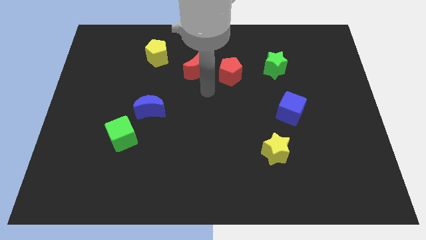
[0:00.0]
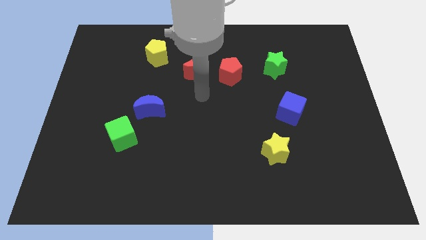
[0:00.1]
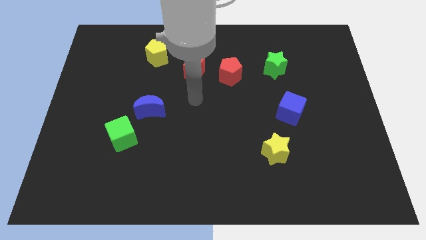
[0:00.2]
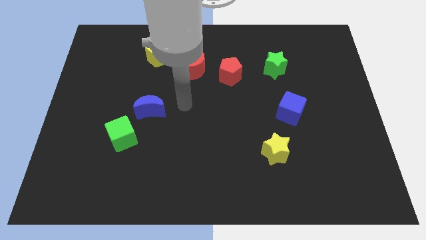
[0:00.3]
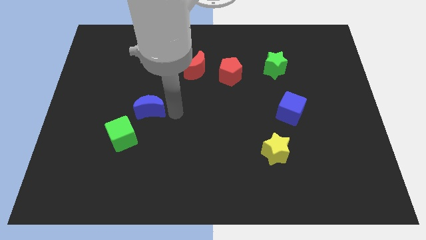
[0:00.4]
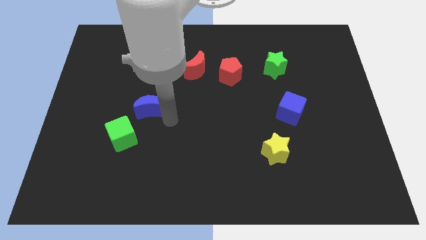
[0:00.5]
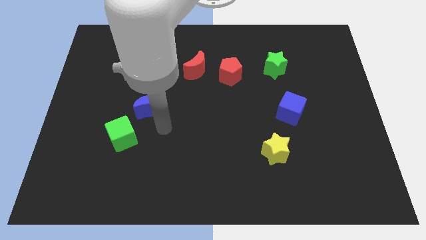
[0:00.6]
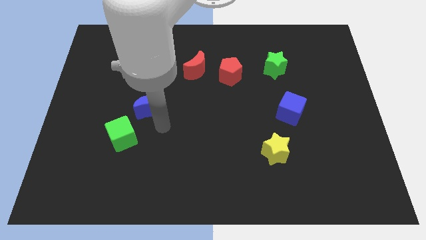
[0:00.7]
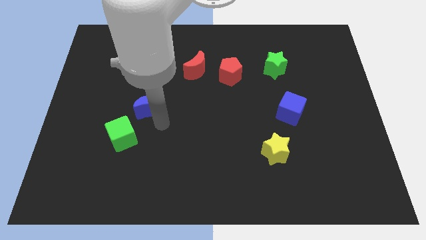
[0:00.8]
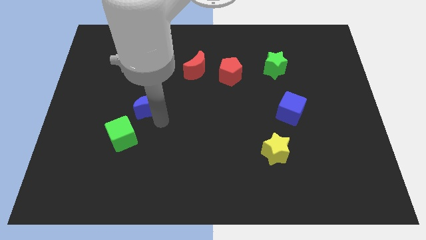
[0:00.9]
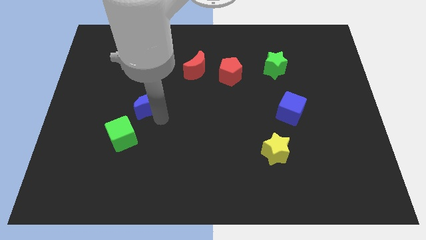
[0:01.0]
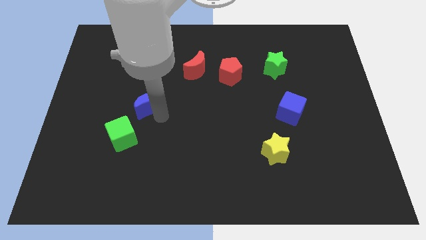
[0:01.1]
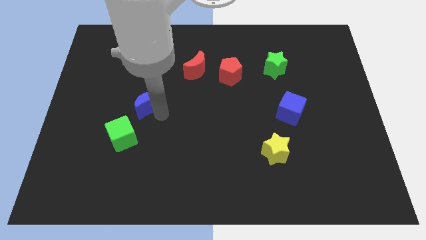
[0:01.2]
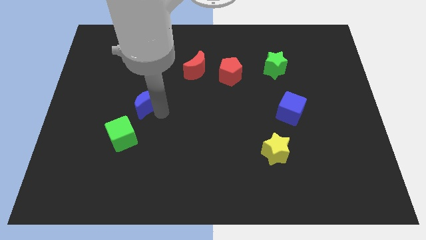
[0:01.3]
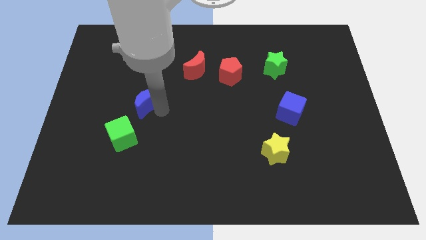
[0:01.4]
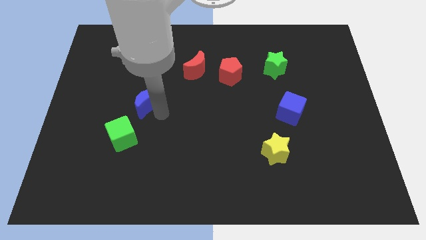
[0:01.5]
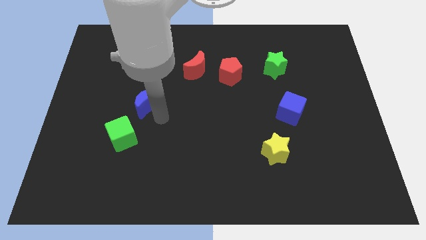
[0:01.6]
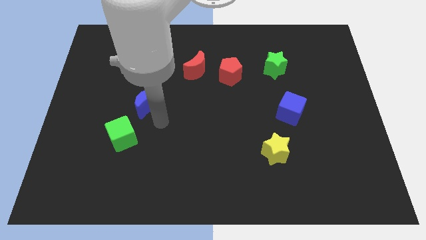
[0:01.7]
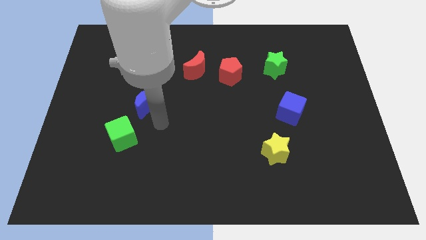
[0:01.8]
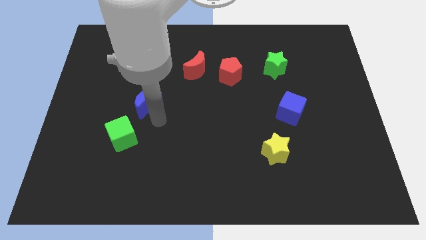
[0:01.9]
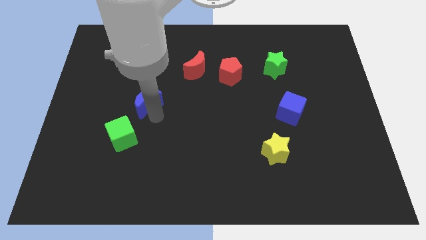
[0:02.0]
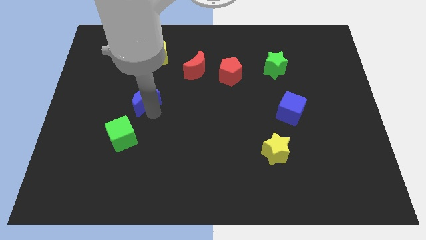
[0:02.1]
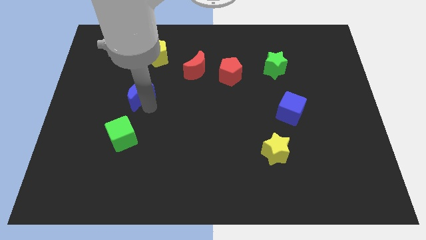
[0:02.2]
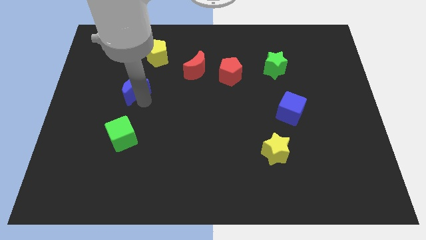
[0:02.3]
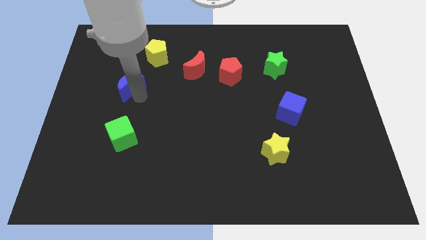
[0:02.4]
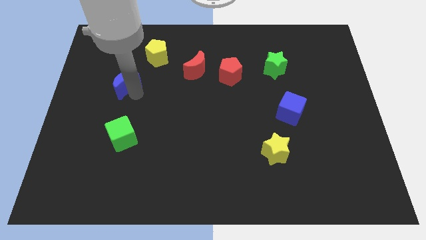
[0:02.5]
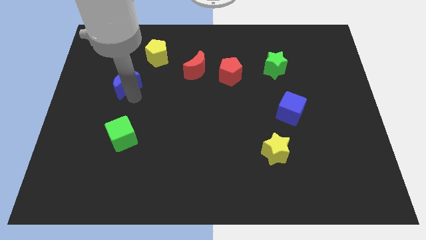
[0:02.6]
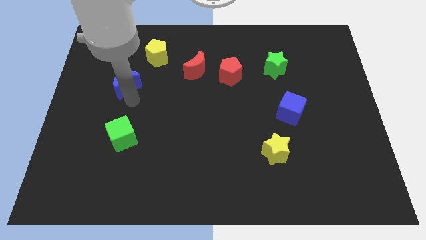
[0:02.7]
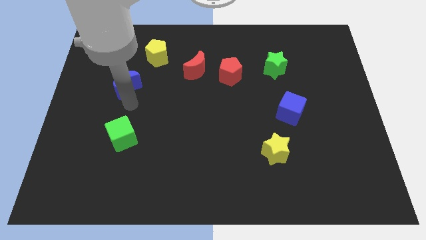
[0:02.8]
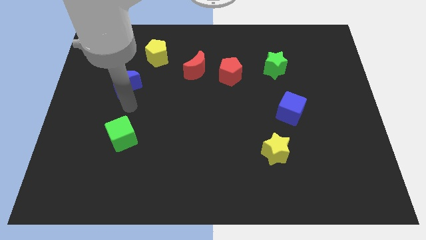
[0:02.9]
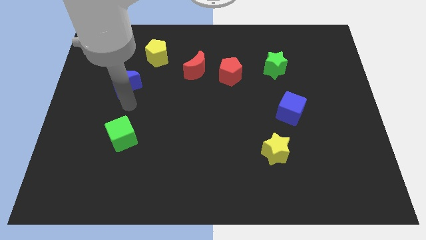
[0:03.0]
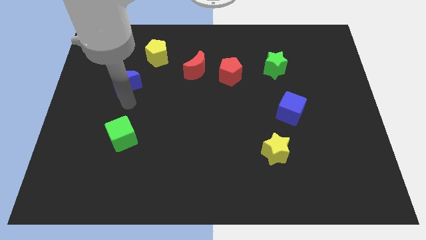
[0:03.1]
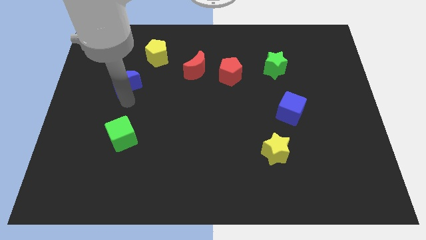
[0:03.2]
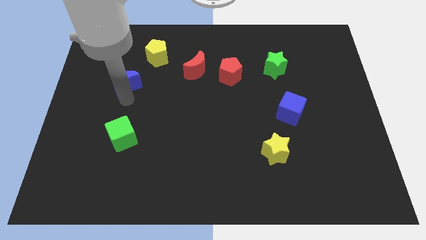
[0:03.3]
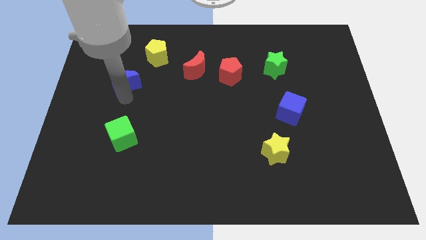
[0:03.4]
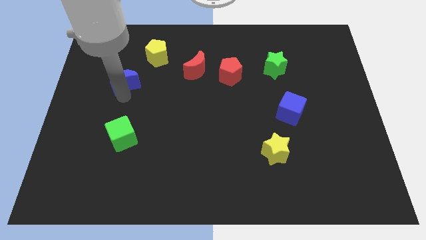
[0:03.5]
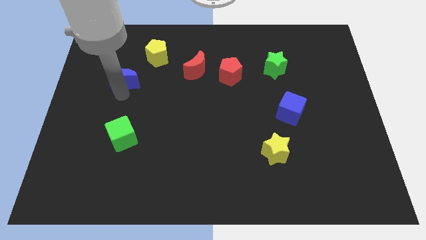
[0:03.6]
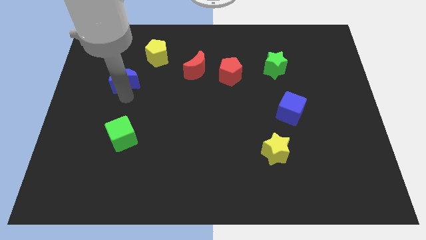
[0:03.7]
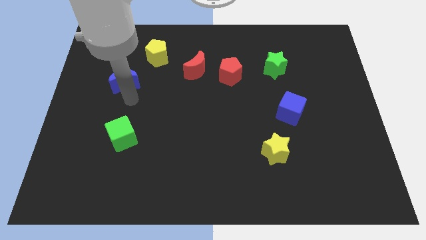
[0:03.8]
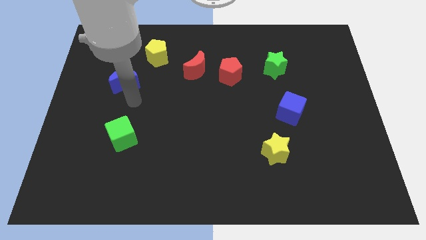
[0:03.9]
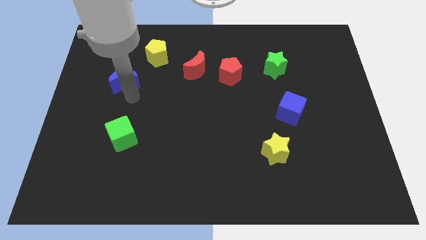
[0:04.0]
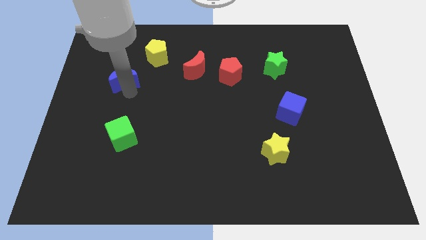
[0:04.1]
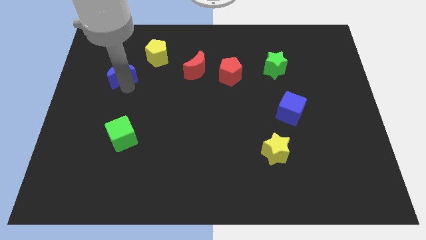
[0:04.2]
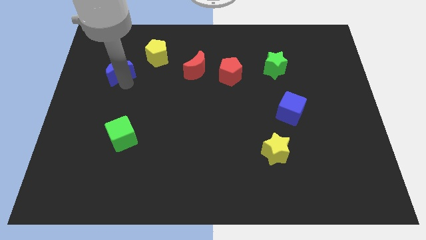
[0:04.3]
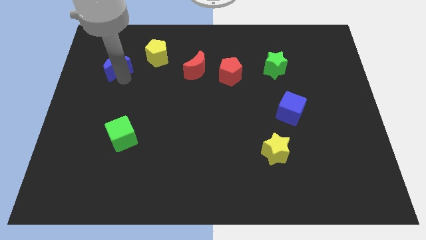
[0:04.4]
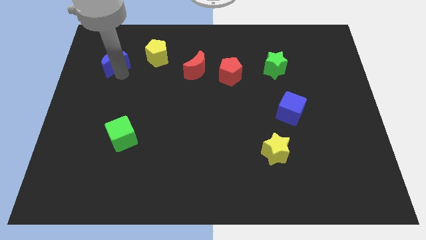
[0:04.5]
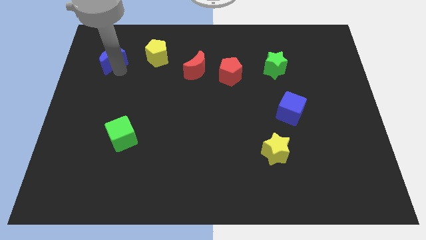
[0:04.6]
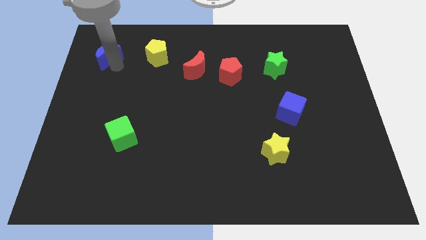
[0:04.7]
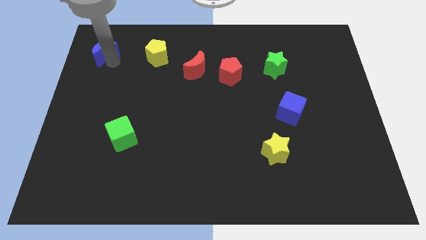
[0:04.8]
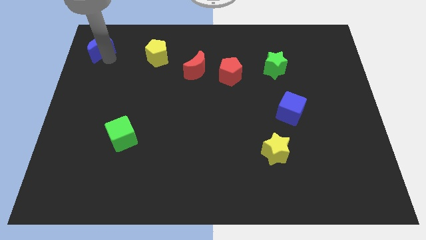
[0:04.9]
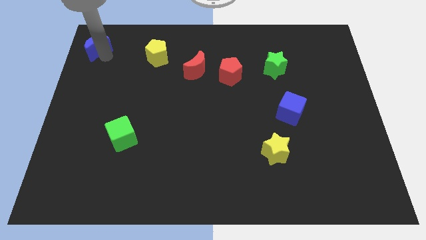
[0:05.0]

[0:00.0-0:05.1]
slide the blue moon to the top left corner

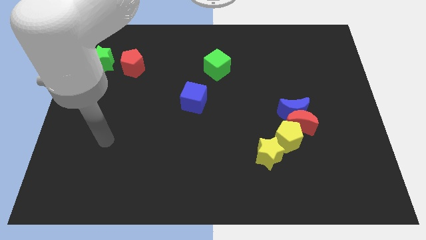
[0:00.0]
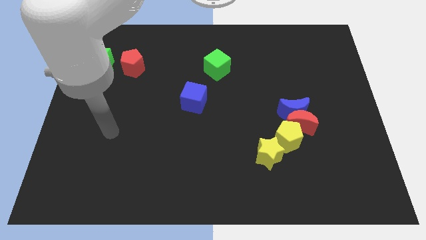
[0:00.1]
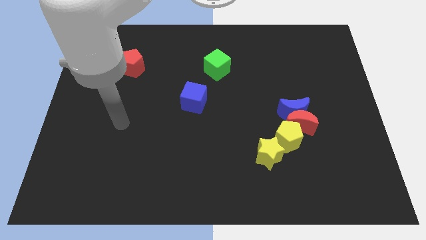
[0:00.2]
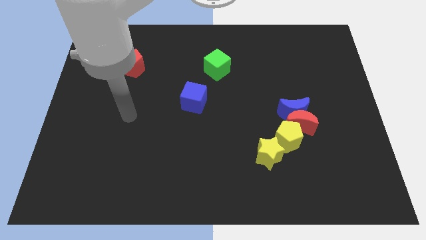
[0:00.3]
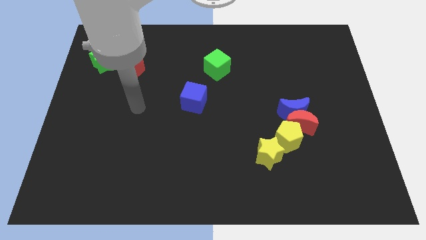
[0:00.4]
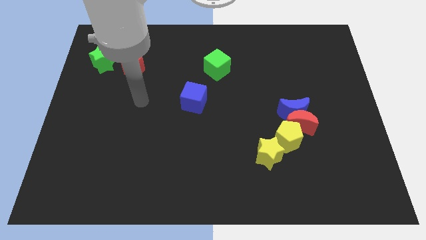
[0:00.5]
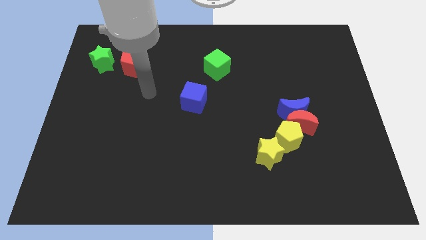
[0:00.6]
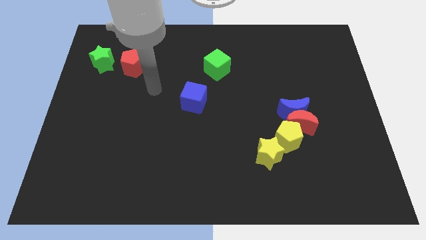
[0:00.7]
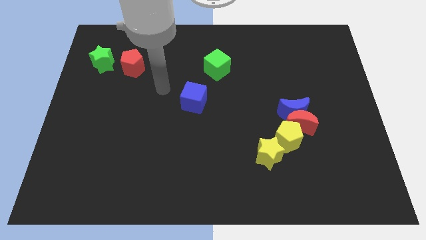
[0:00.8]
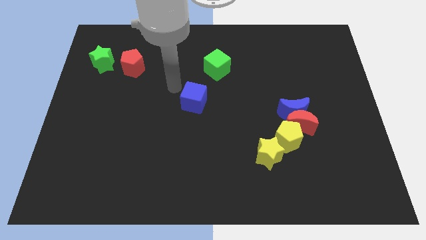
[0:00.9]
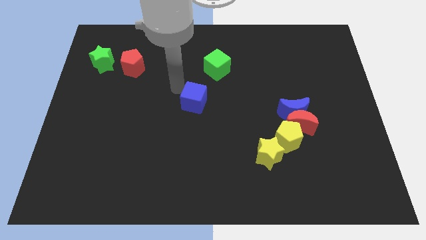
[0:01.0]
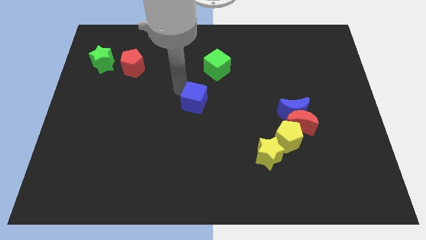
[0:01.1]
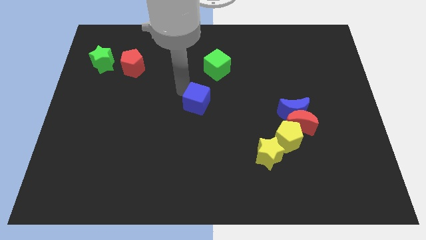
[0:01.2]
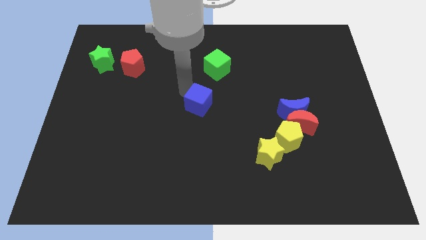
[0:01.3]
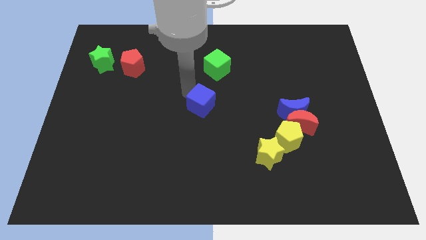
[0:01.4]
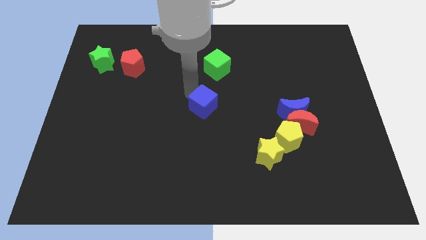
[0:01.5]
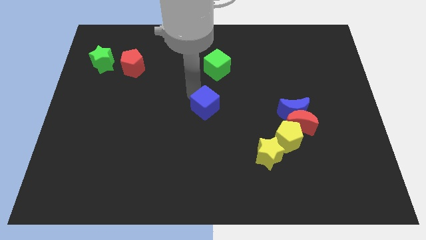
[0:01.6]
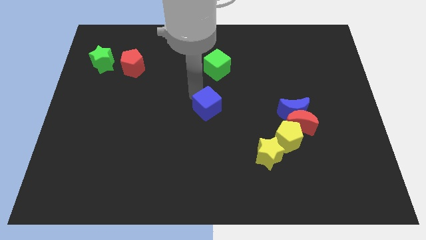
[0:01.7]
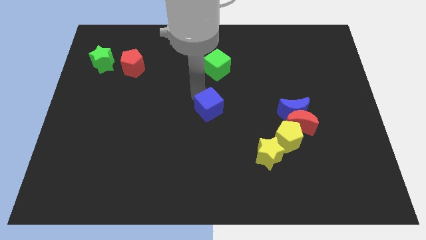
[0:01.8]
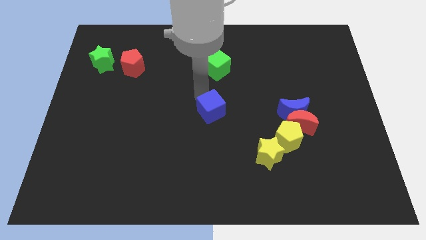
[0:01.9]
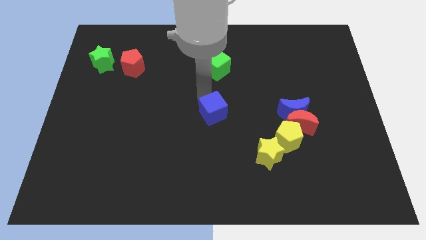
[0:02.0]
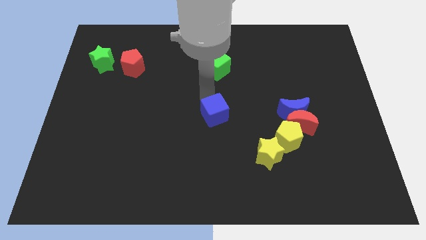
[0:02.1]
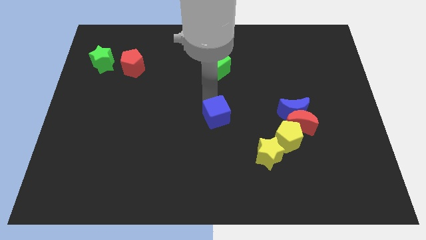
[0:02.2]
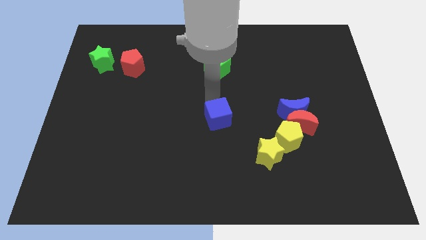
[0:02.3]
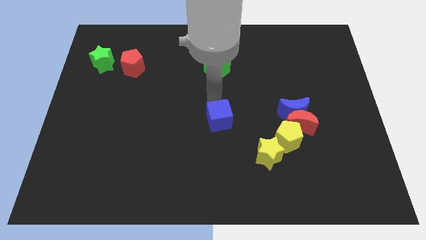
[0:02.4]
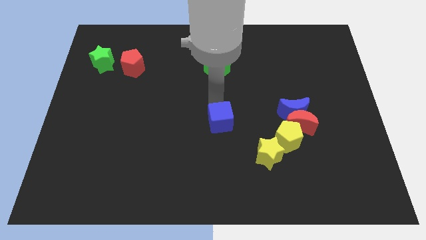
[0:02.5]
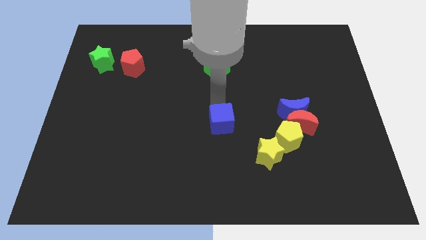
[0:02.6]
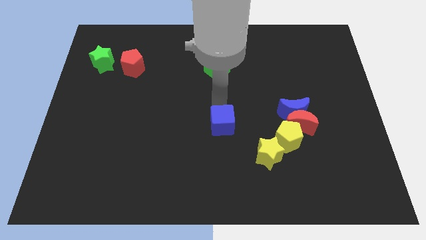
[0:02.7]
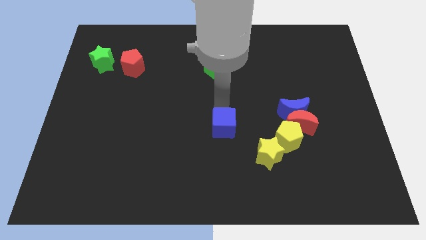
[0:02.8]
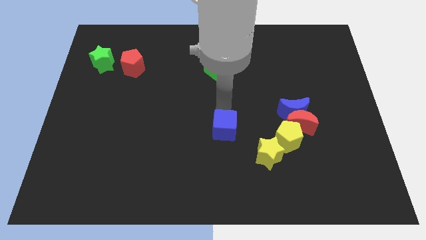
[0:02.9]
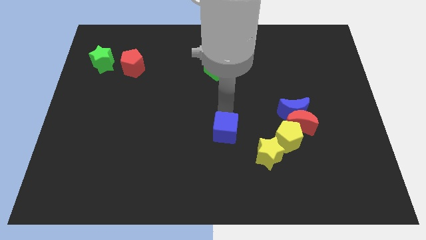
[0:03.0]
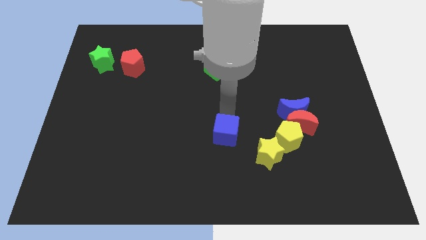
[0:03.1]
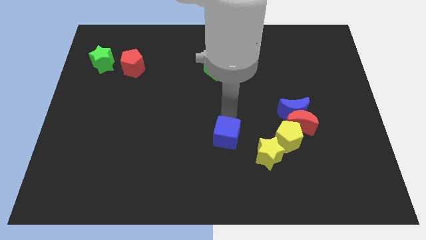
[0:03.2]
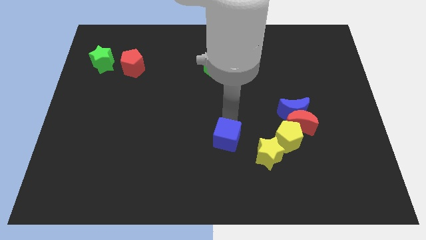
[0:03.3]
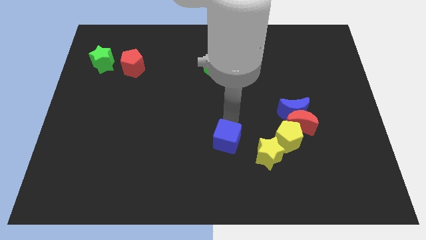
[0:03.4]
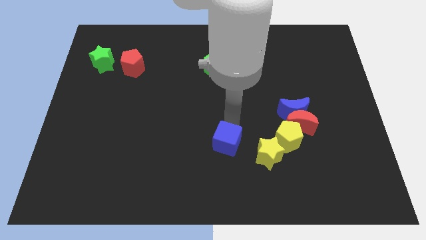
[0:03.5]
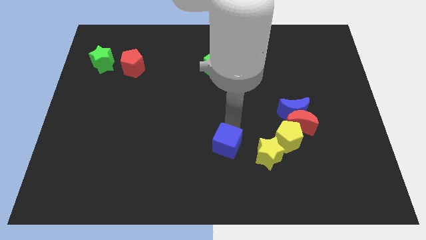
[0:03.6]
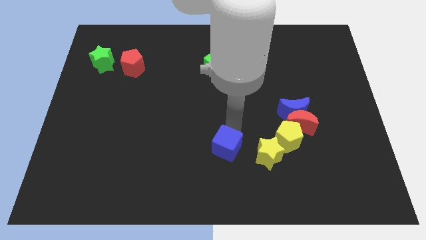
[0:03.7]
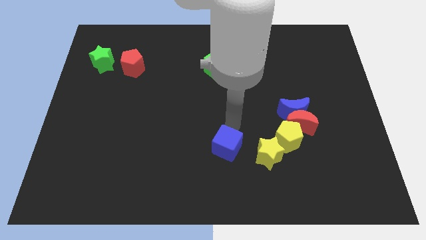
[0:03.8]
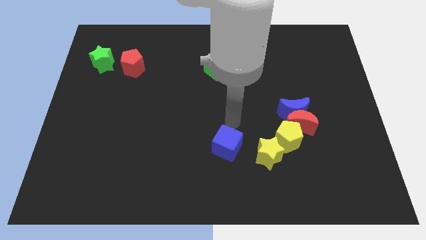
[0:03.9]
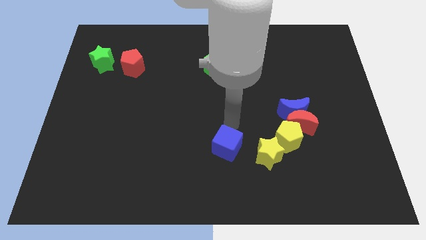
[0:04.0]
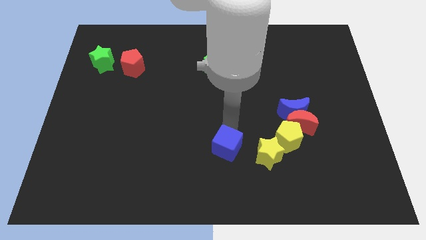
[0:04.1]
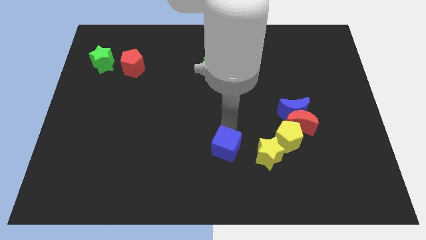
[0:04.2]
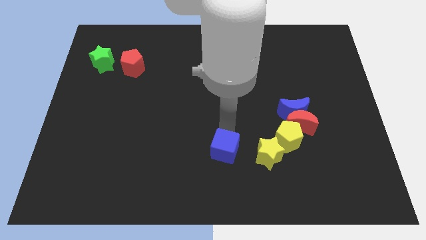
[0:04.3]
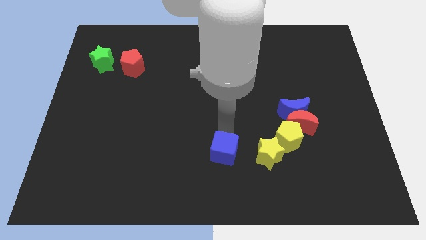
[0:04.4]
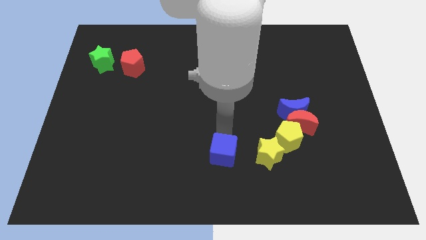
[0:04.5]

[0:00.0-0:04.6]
put the blue cube to the bottom side
